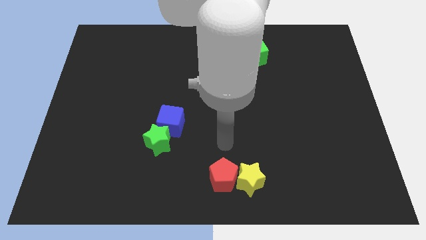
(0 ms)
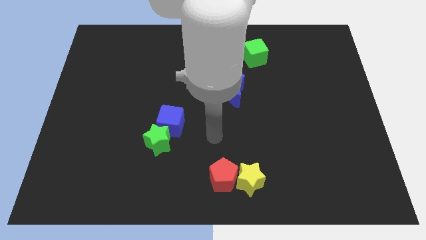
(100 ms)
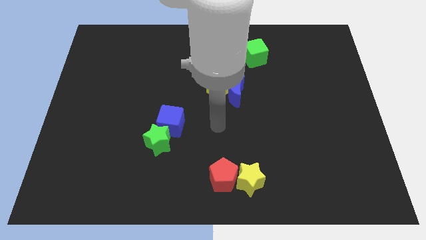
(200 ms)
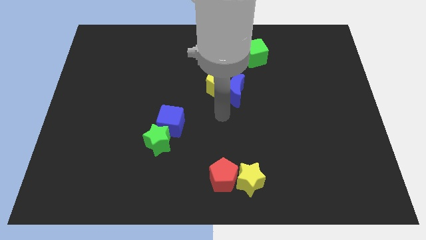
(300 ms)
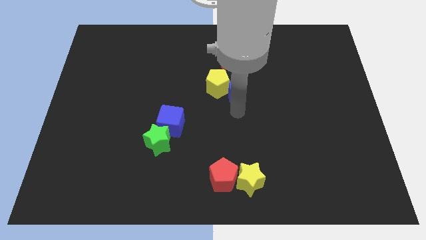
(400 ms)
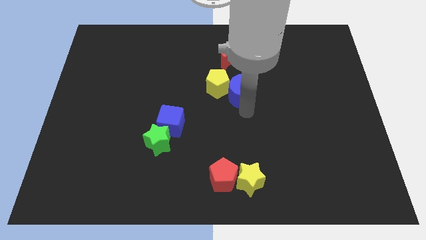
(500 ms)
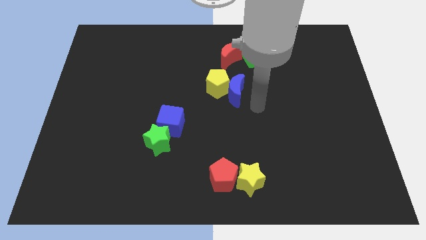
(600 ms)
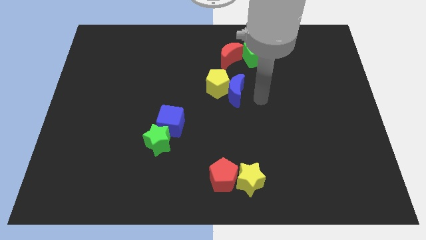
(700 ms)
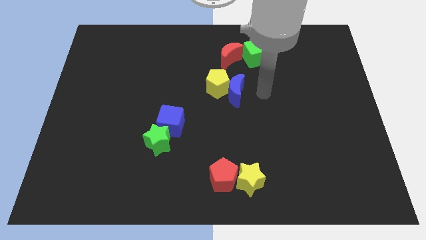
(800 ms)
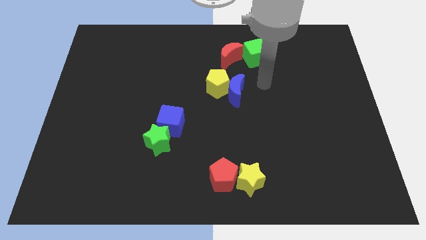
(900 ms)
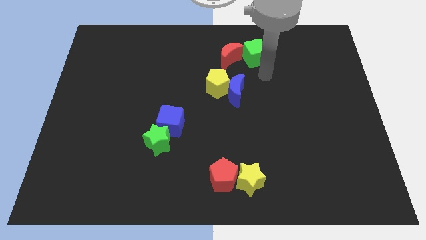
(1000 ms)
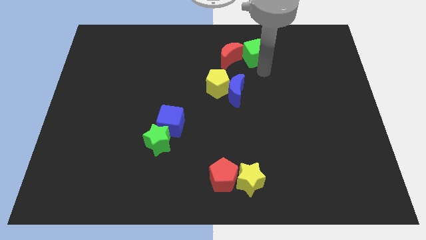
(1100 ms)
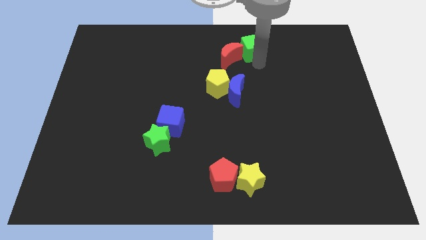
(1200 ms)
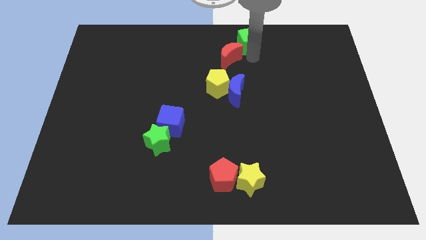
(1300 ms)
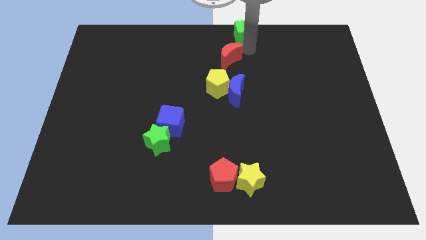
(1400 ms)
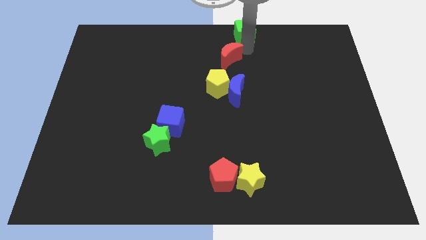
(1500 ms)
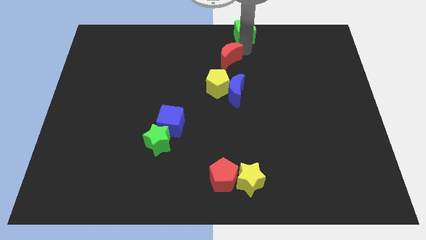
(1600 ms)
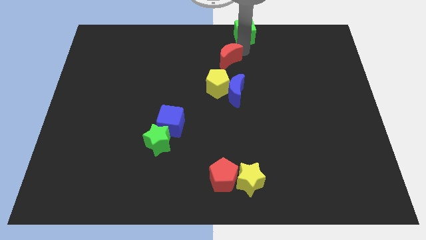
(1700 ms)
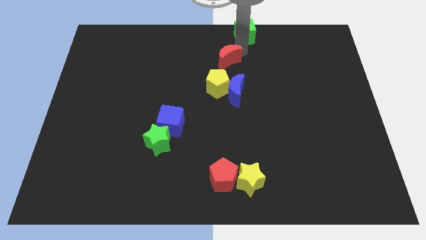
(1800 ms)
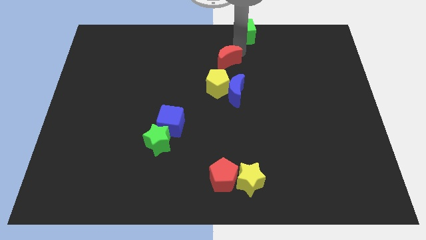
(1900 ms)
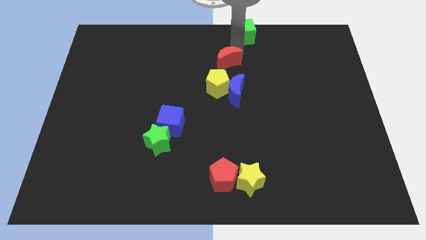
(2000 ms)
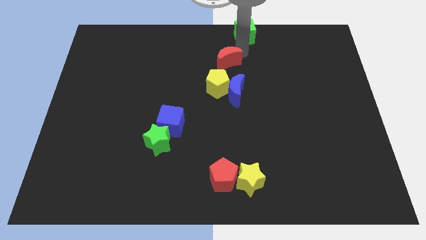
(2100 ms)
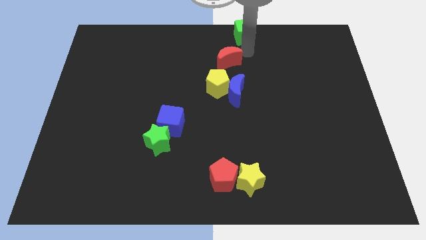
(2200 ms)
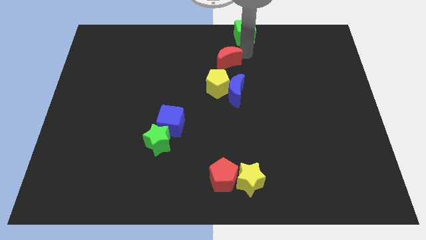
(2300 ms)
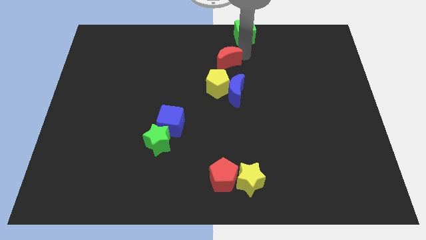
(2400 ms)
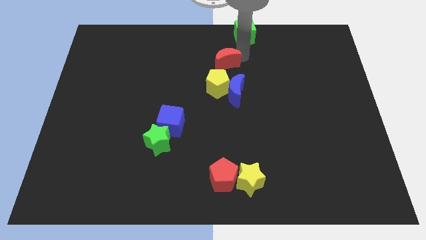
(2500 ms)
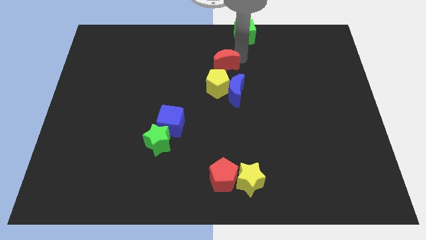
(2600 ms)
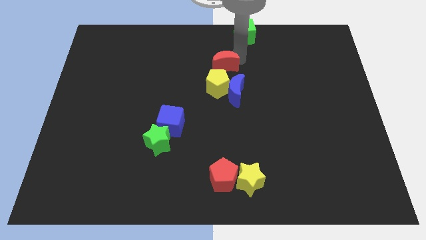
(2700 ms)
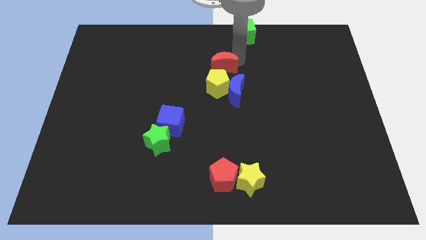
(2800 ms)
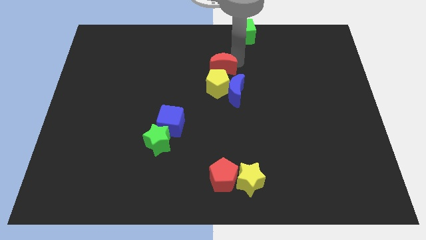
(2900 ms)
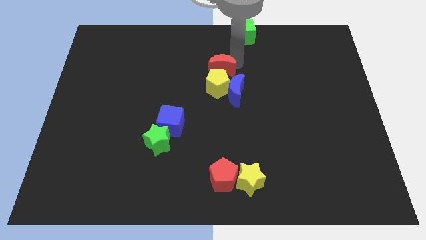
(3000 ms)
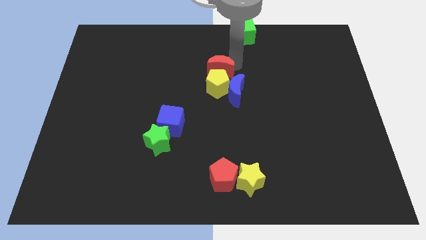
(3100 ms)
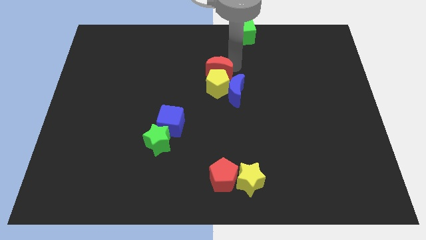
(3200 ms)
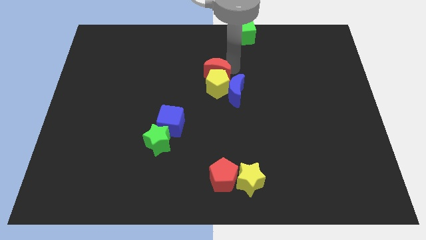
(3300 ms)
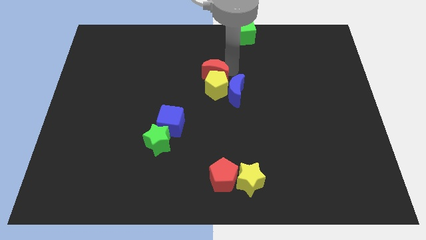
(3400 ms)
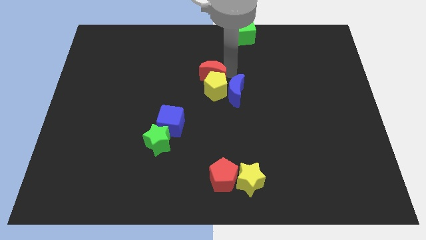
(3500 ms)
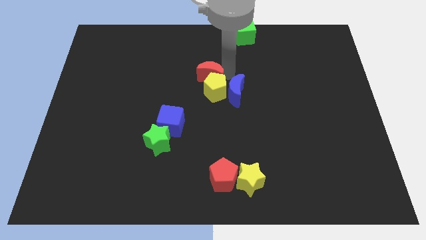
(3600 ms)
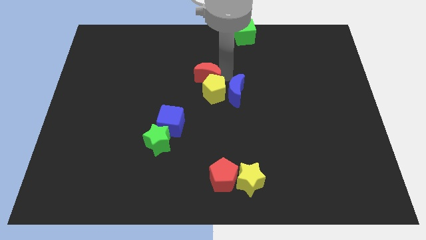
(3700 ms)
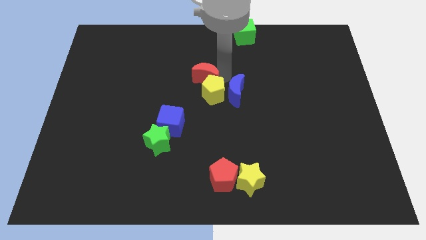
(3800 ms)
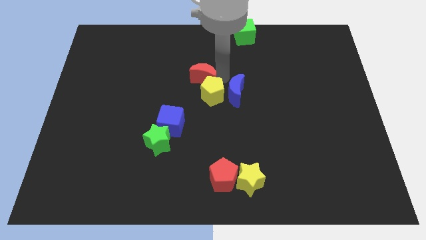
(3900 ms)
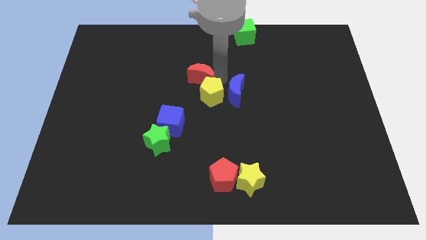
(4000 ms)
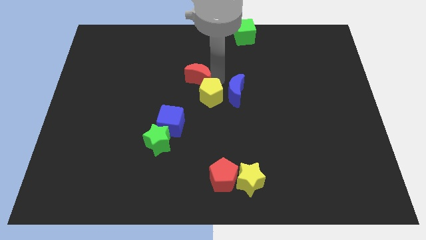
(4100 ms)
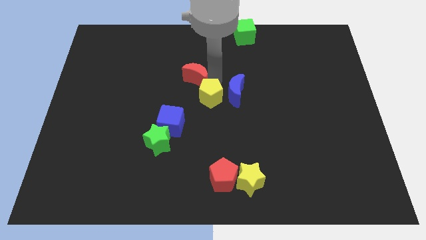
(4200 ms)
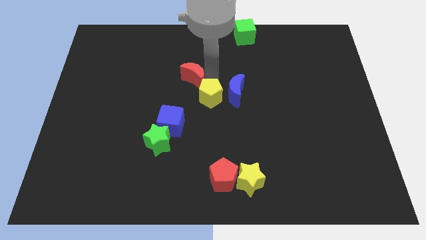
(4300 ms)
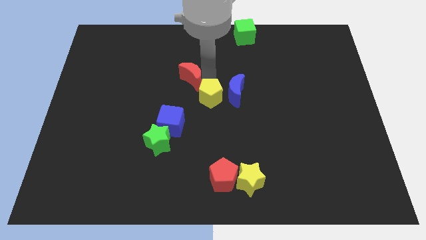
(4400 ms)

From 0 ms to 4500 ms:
move the red moon above the blue cube

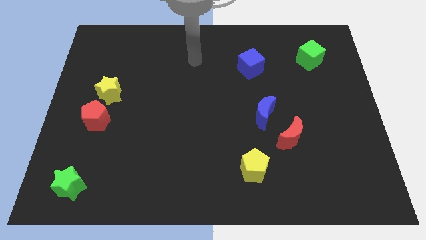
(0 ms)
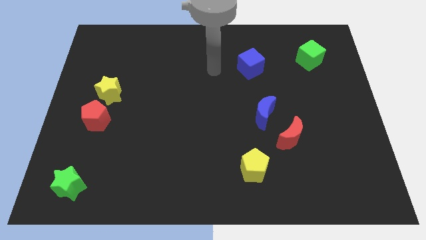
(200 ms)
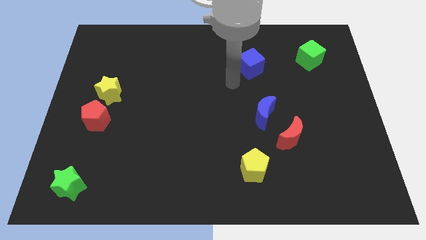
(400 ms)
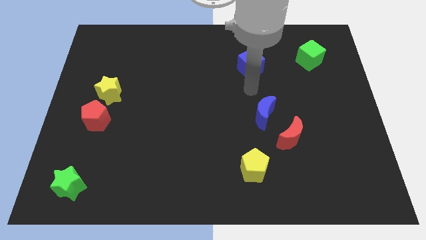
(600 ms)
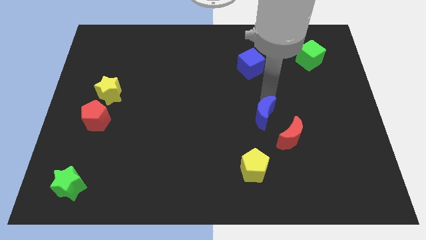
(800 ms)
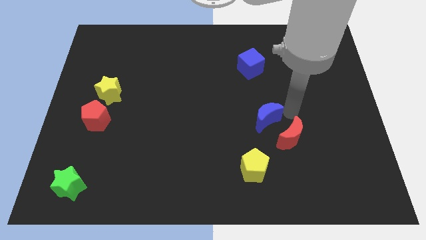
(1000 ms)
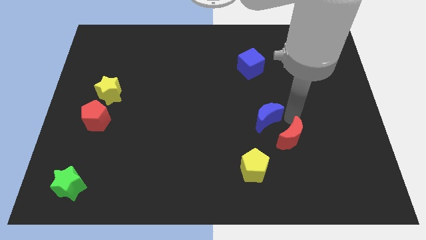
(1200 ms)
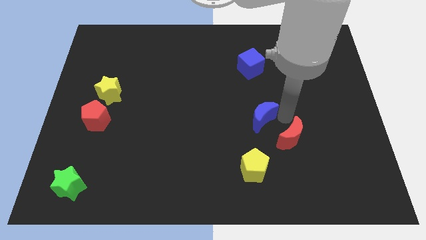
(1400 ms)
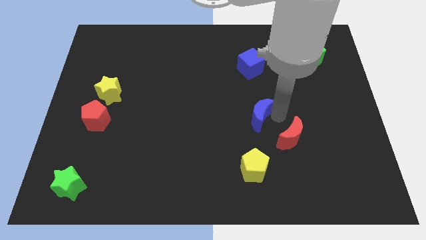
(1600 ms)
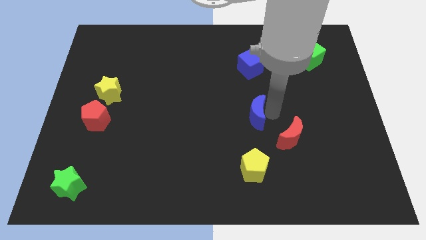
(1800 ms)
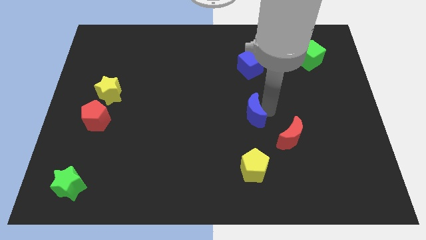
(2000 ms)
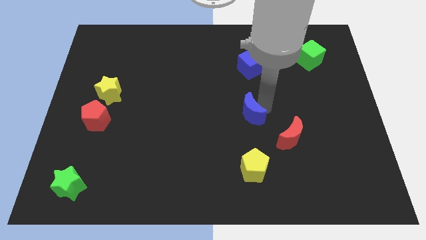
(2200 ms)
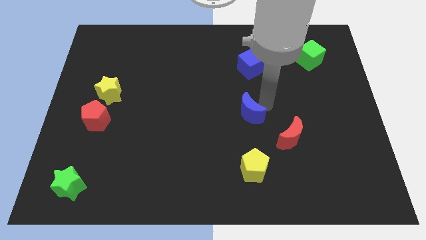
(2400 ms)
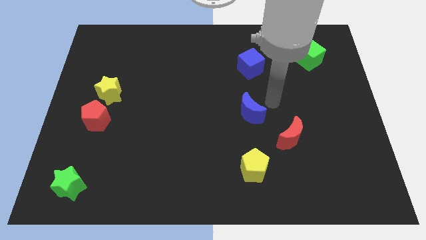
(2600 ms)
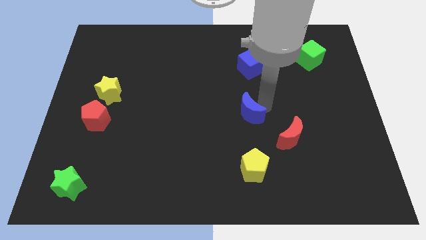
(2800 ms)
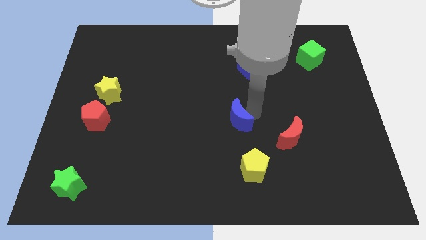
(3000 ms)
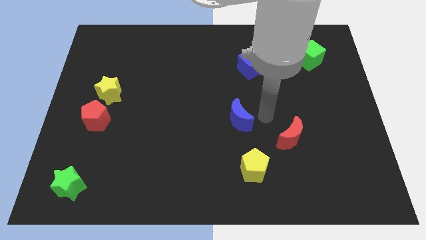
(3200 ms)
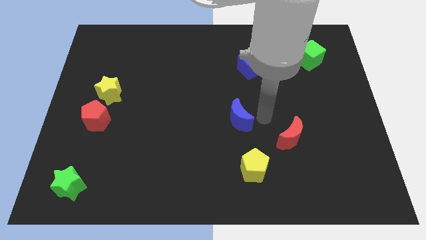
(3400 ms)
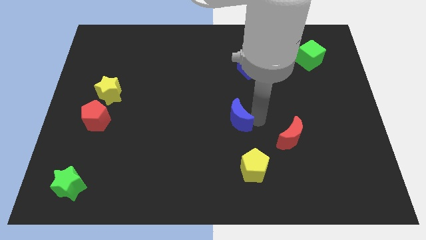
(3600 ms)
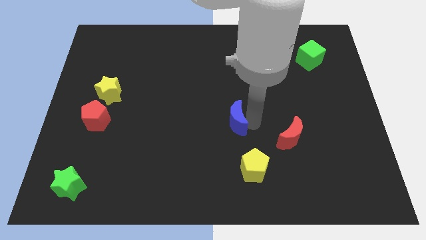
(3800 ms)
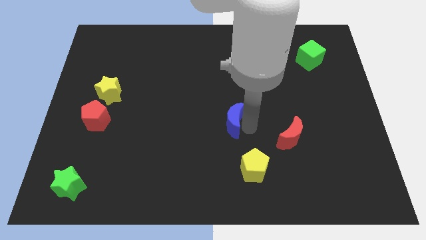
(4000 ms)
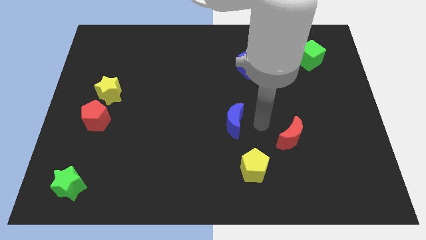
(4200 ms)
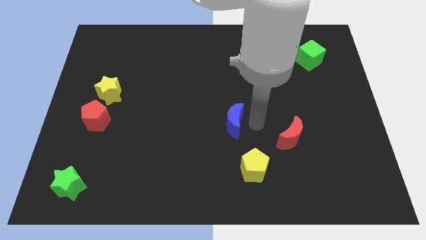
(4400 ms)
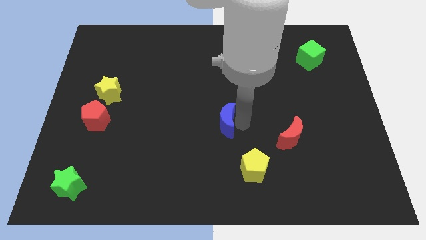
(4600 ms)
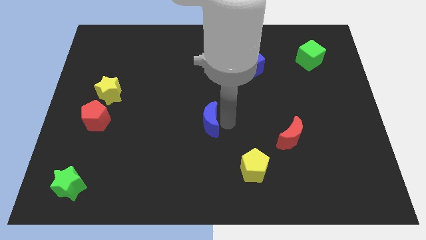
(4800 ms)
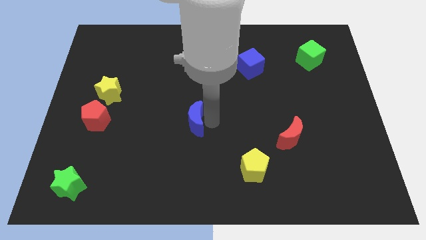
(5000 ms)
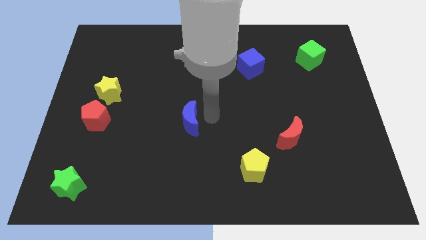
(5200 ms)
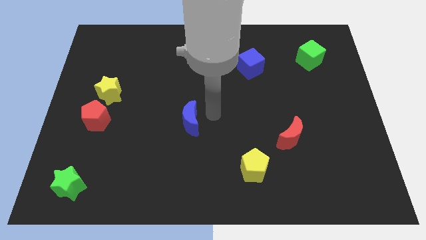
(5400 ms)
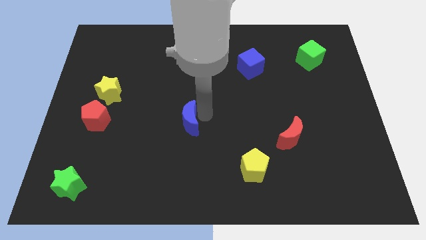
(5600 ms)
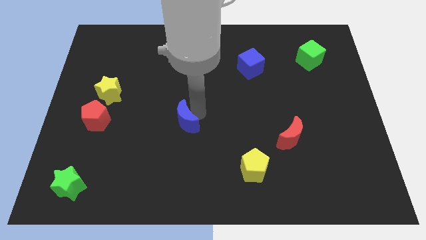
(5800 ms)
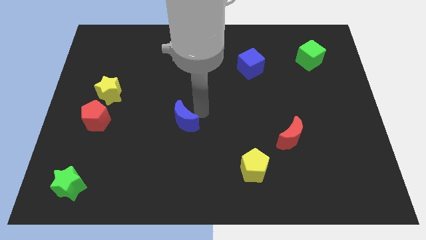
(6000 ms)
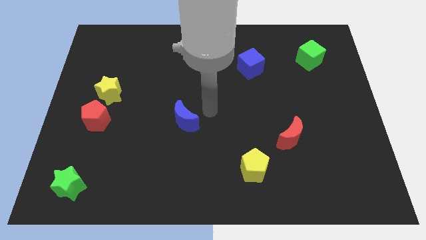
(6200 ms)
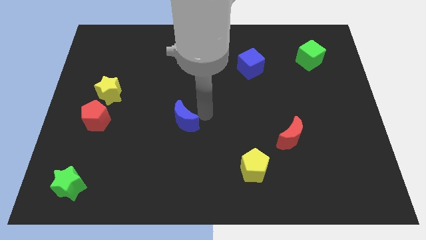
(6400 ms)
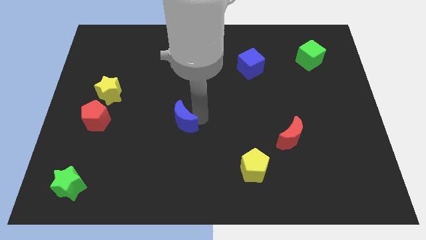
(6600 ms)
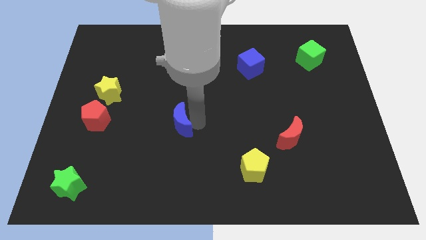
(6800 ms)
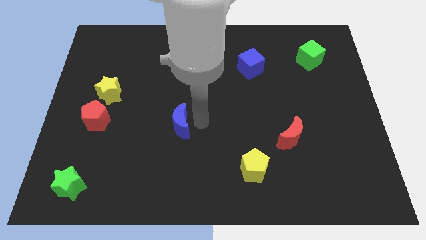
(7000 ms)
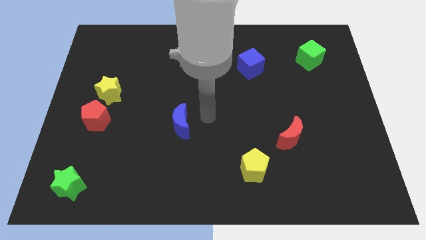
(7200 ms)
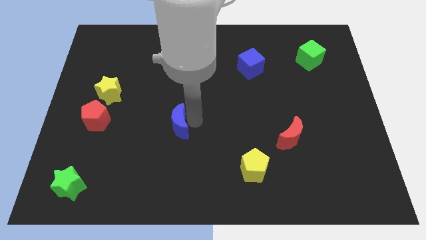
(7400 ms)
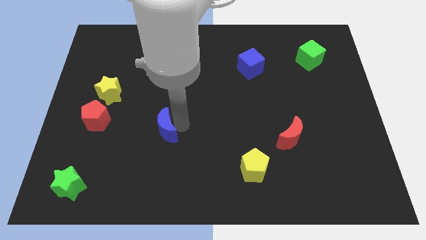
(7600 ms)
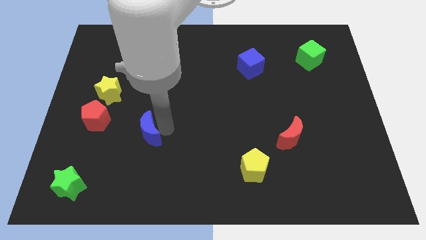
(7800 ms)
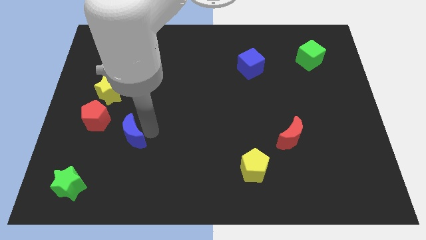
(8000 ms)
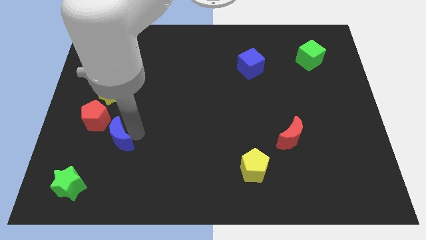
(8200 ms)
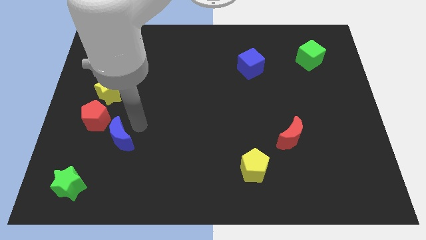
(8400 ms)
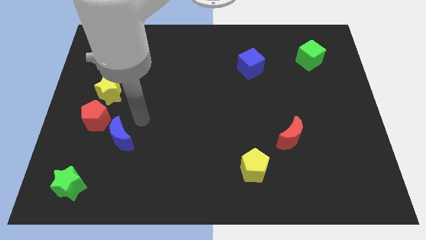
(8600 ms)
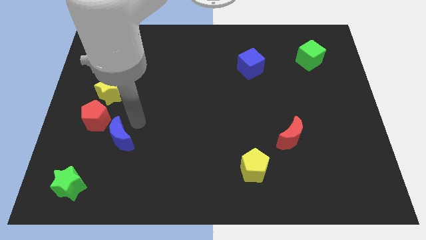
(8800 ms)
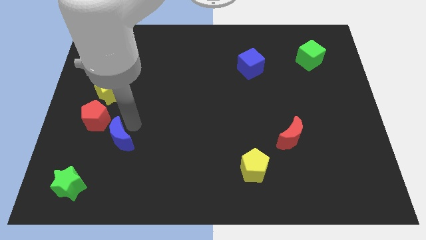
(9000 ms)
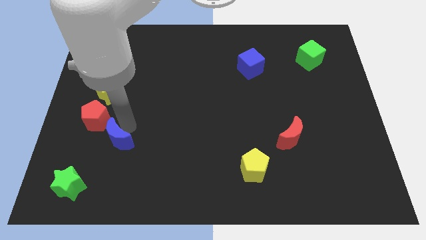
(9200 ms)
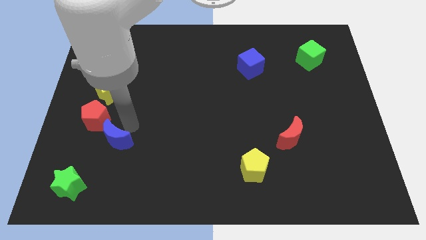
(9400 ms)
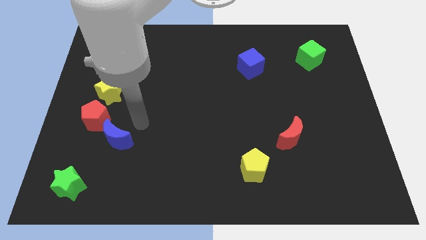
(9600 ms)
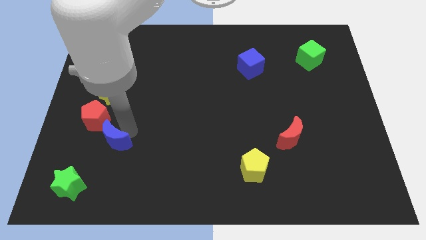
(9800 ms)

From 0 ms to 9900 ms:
push the blue moon to the bottom of the red pentagon
